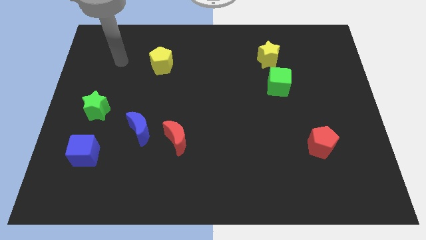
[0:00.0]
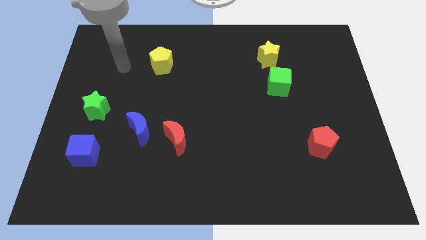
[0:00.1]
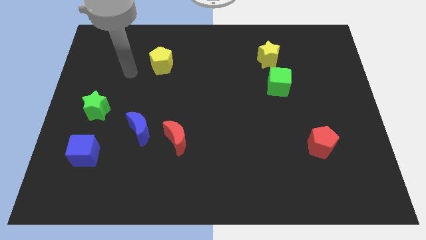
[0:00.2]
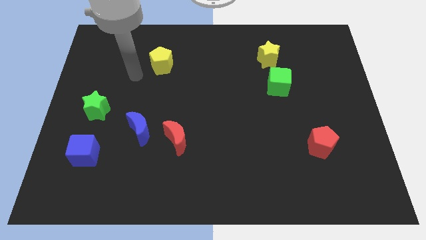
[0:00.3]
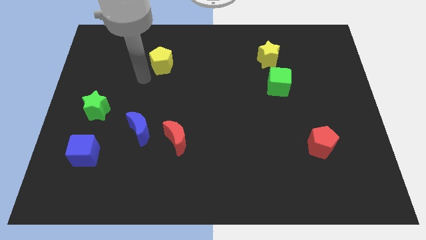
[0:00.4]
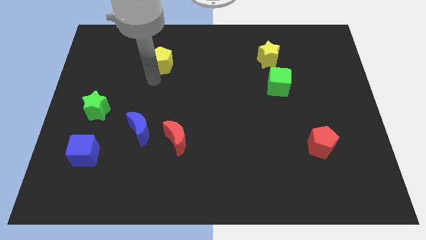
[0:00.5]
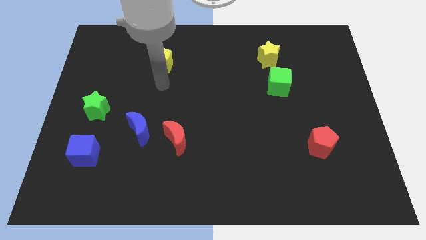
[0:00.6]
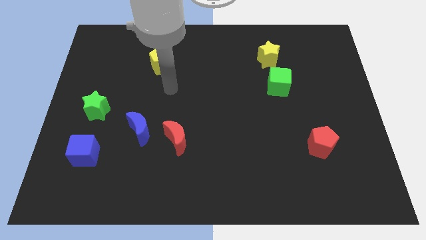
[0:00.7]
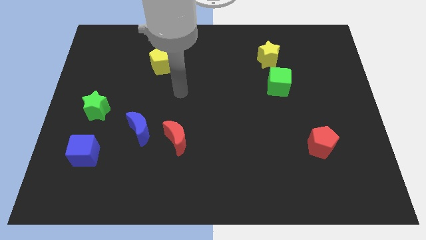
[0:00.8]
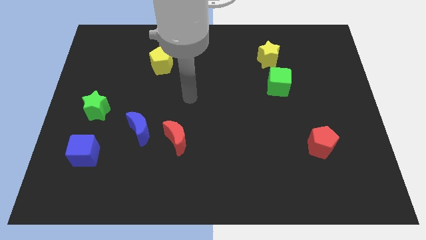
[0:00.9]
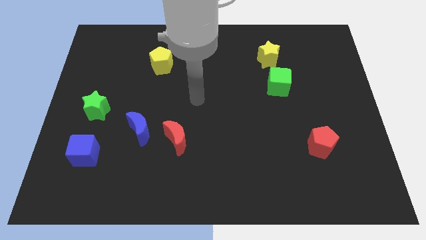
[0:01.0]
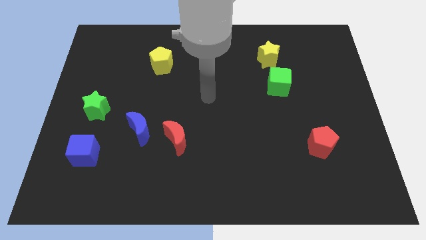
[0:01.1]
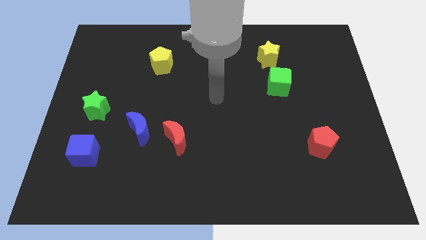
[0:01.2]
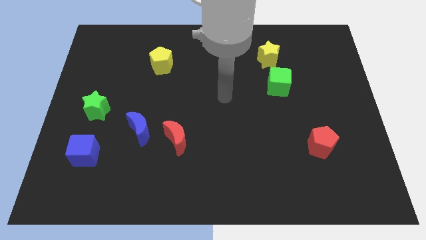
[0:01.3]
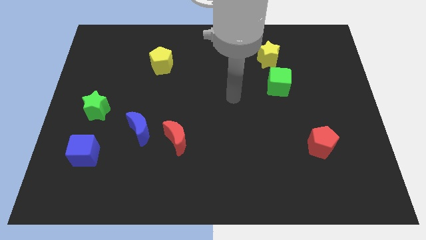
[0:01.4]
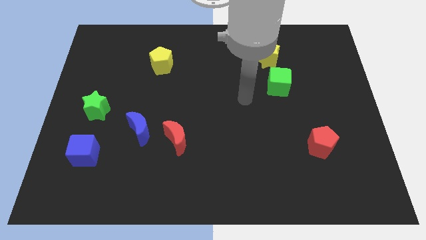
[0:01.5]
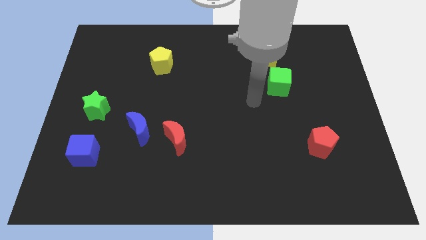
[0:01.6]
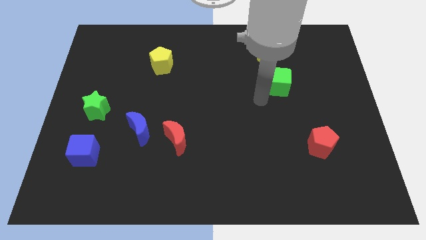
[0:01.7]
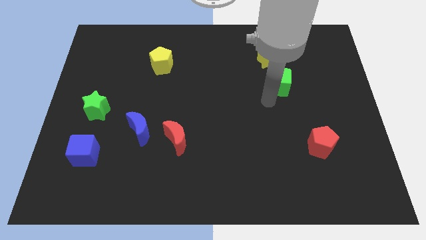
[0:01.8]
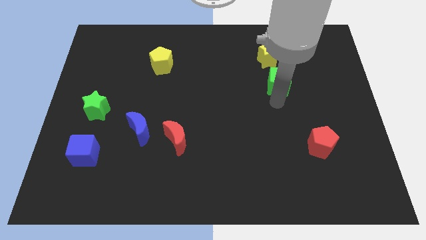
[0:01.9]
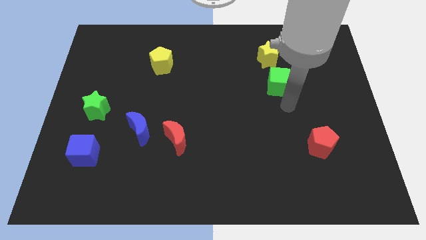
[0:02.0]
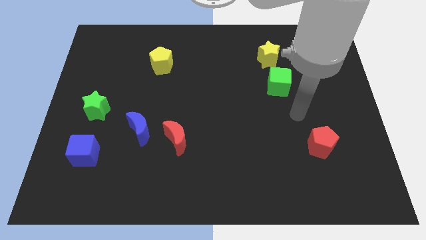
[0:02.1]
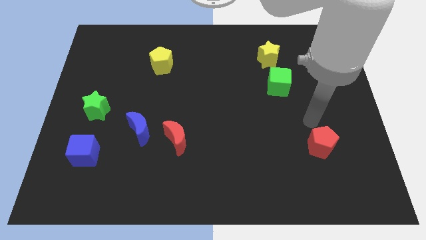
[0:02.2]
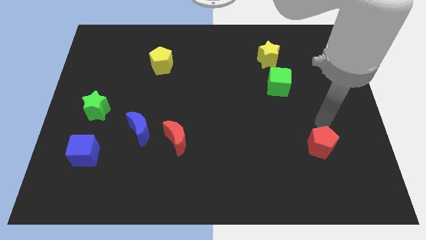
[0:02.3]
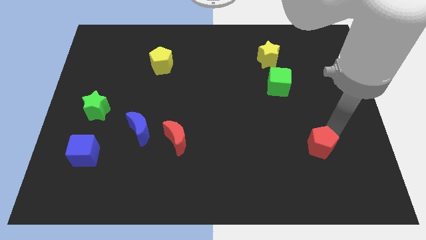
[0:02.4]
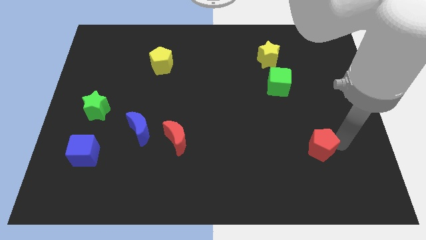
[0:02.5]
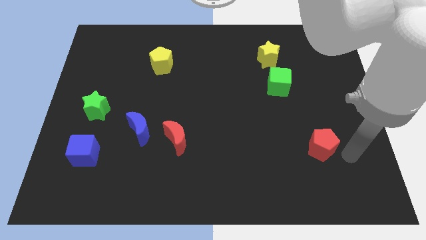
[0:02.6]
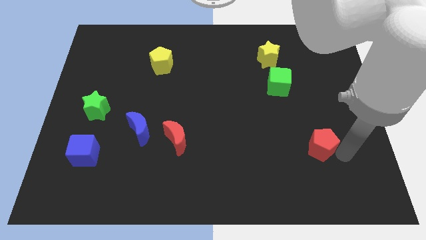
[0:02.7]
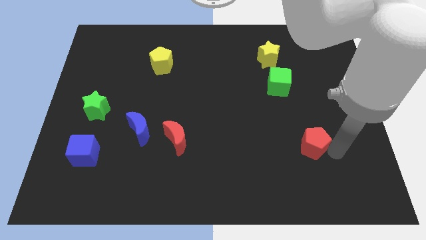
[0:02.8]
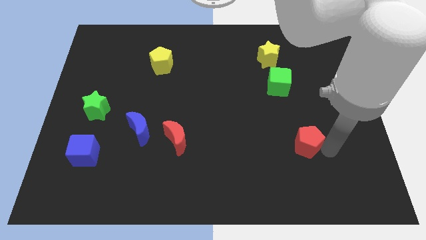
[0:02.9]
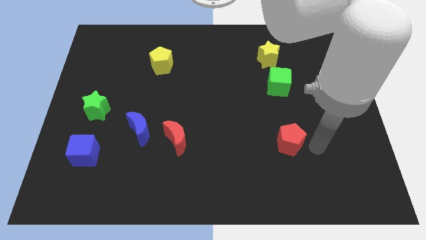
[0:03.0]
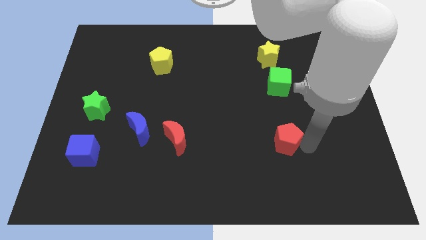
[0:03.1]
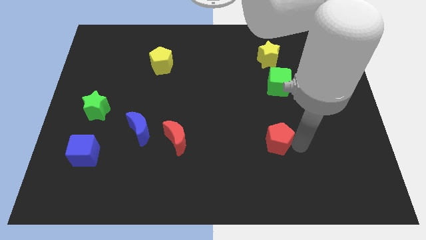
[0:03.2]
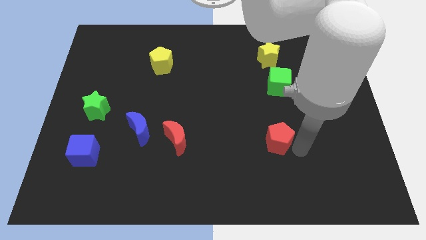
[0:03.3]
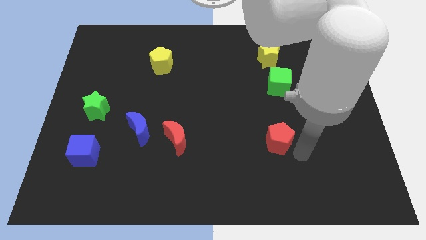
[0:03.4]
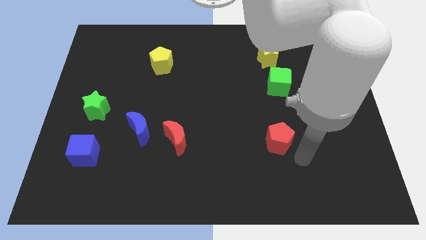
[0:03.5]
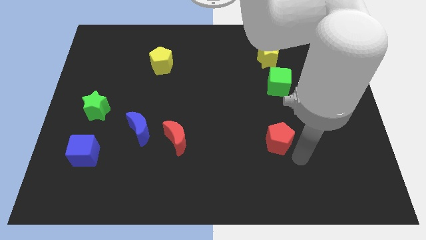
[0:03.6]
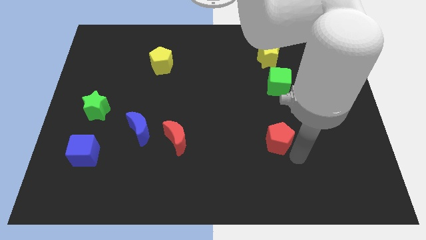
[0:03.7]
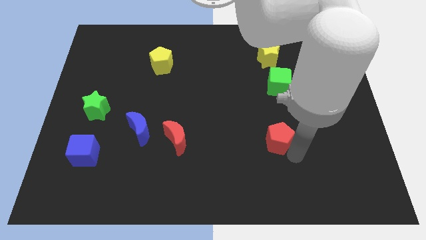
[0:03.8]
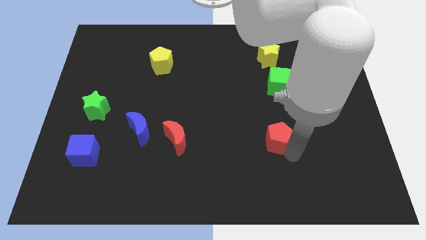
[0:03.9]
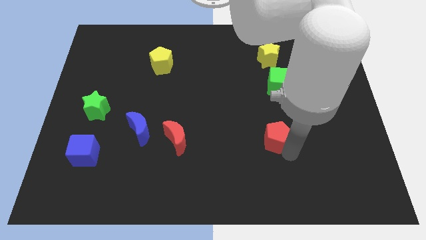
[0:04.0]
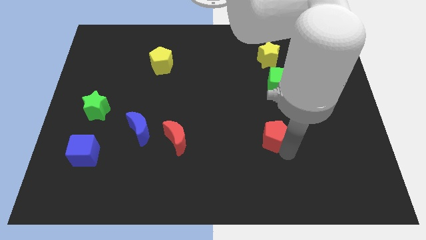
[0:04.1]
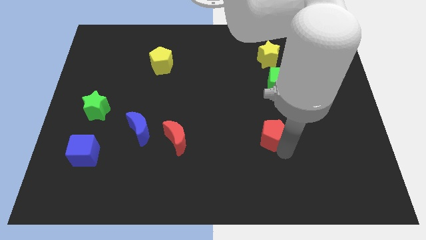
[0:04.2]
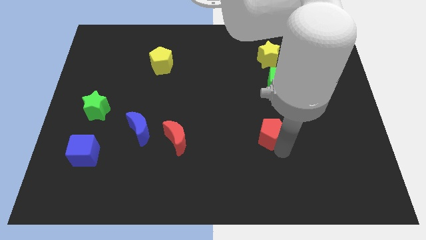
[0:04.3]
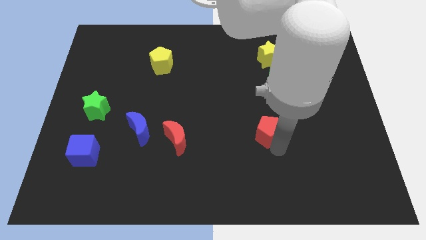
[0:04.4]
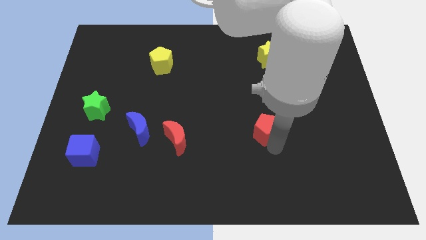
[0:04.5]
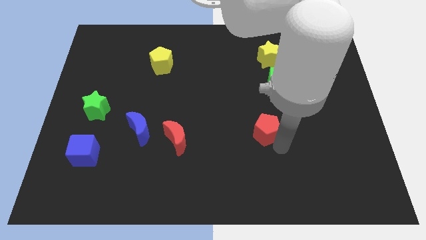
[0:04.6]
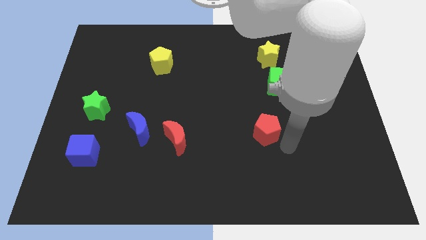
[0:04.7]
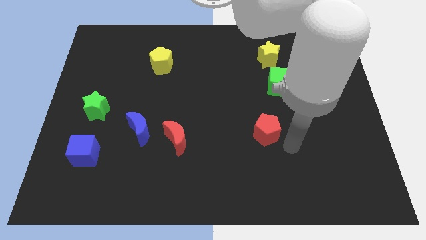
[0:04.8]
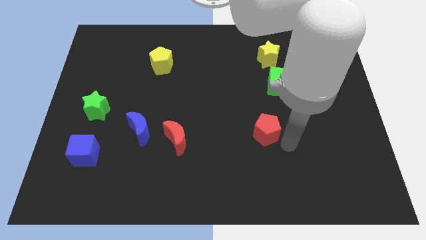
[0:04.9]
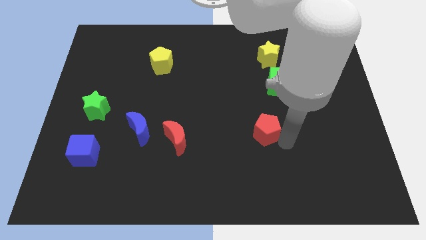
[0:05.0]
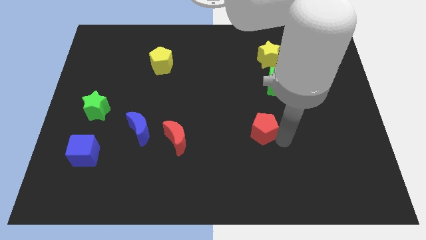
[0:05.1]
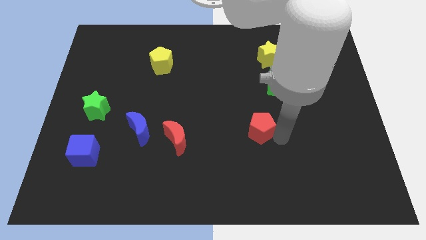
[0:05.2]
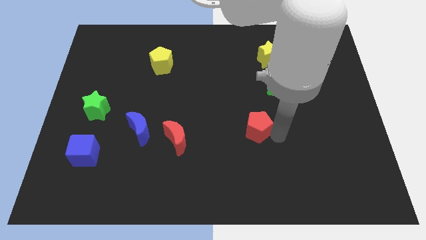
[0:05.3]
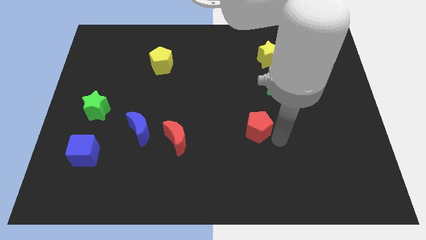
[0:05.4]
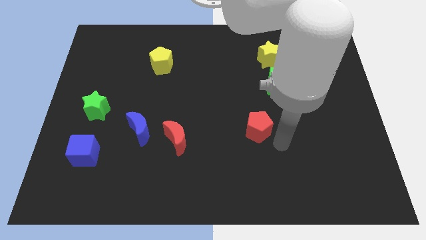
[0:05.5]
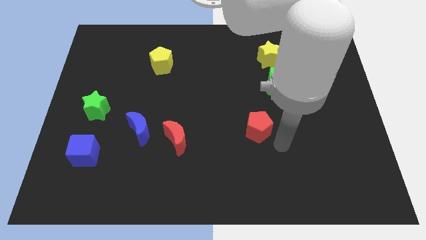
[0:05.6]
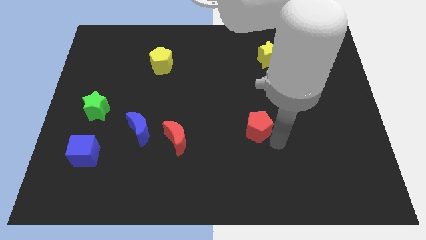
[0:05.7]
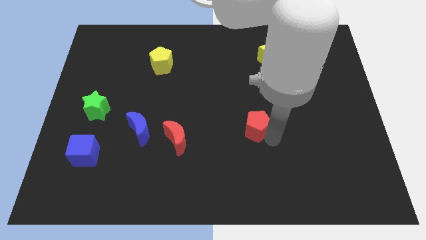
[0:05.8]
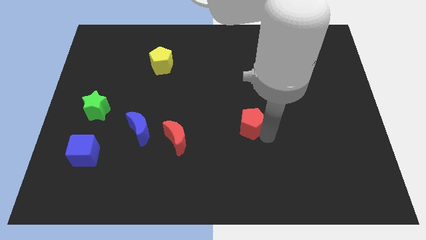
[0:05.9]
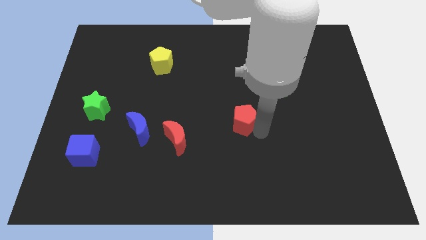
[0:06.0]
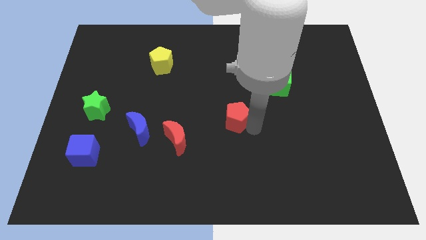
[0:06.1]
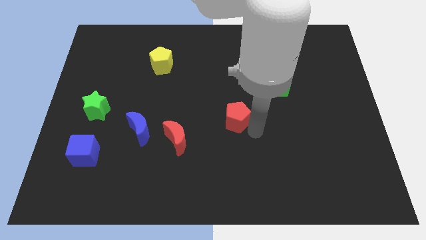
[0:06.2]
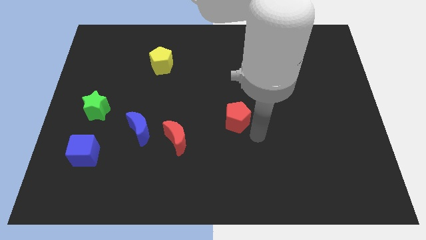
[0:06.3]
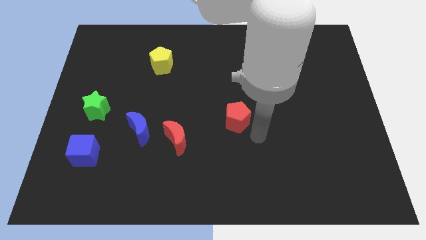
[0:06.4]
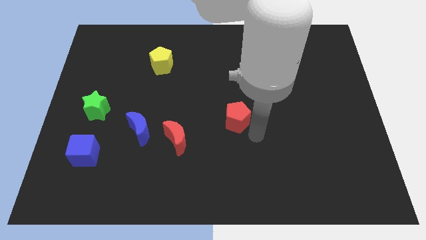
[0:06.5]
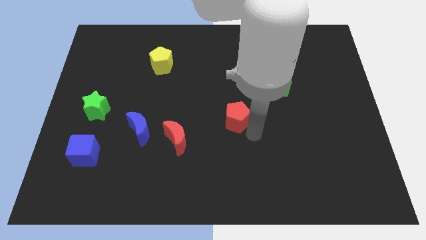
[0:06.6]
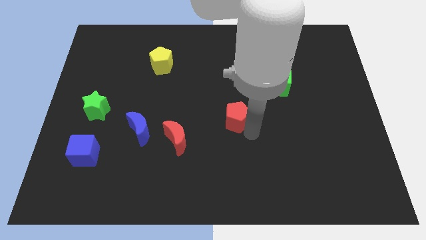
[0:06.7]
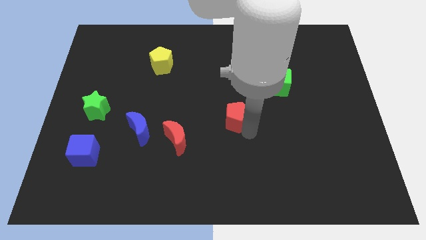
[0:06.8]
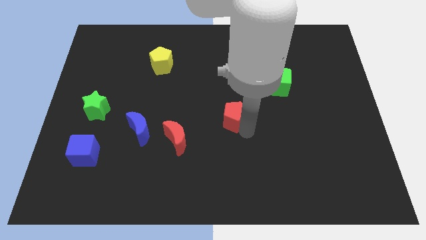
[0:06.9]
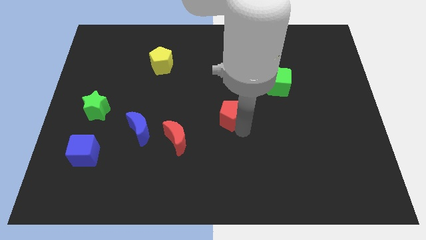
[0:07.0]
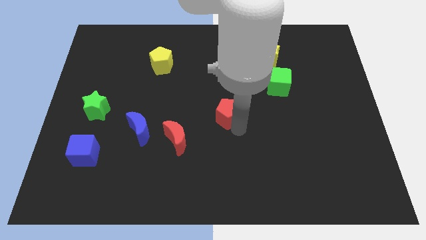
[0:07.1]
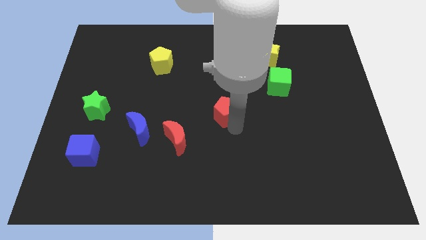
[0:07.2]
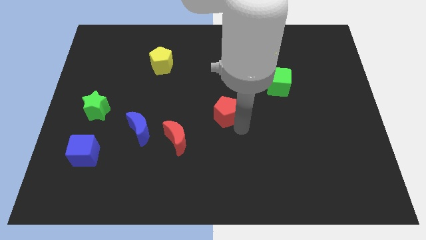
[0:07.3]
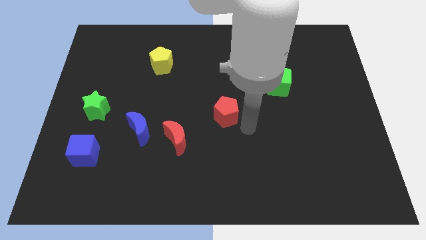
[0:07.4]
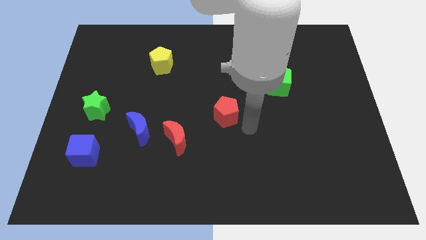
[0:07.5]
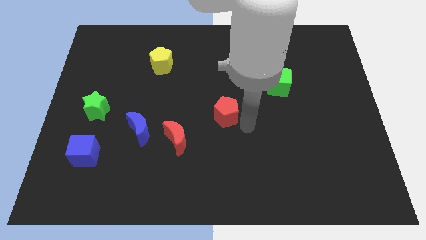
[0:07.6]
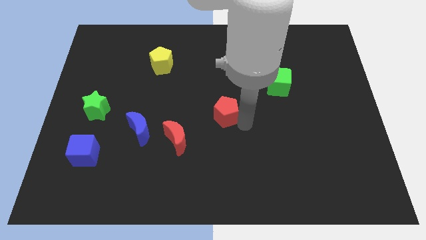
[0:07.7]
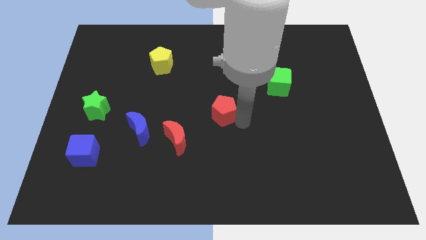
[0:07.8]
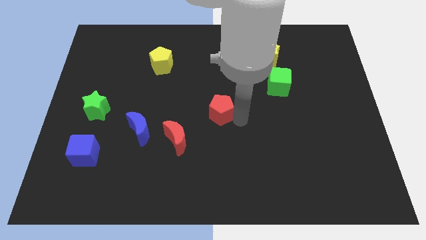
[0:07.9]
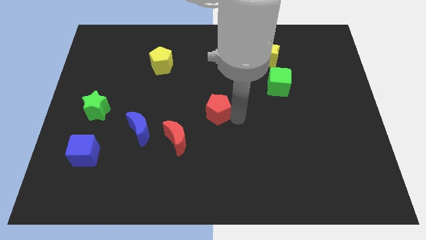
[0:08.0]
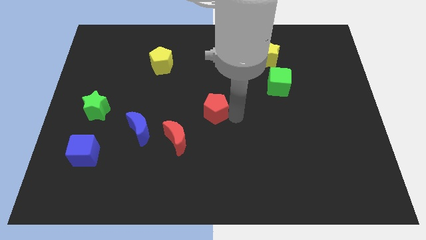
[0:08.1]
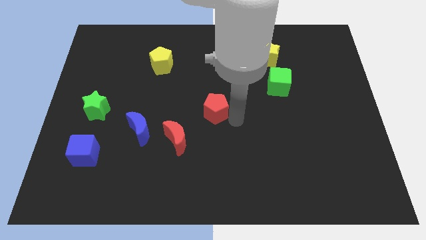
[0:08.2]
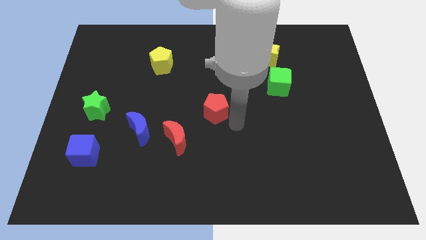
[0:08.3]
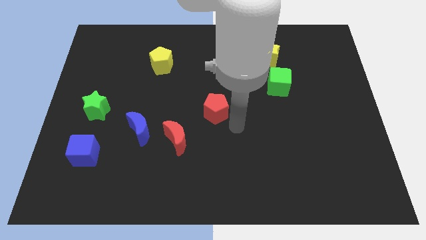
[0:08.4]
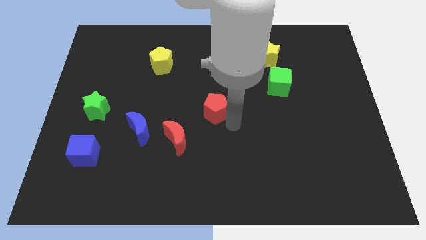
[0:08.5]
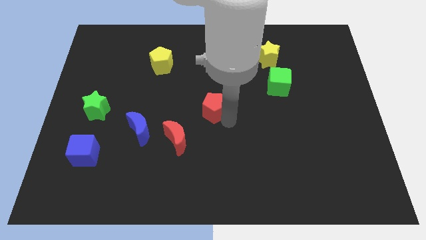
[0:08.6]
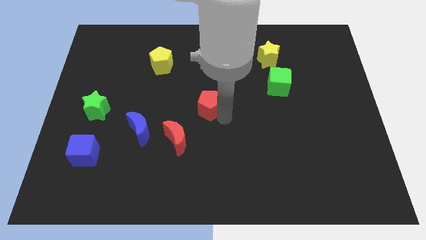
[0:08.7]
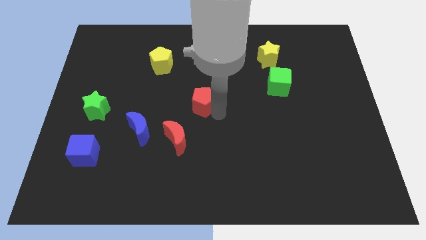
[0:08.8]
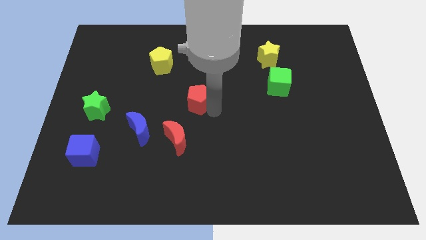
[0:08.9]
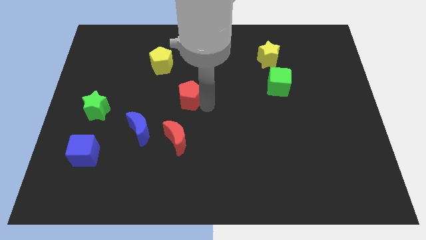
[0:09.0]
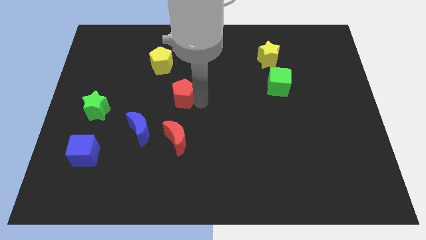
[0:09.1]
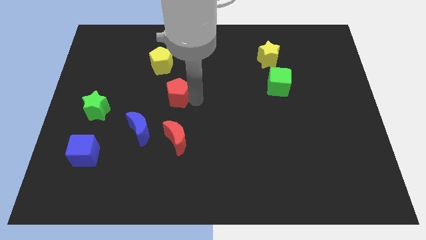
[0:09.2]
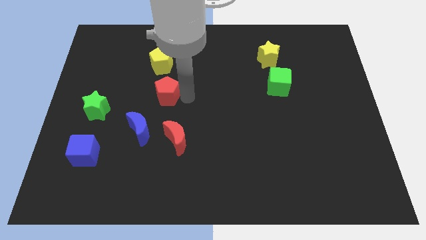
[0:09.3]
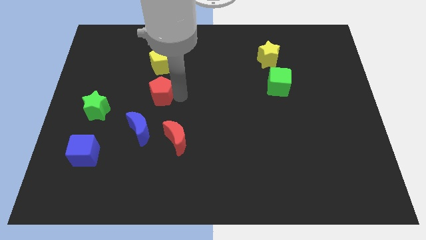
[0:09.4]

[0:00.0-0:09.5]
slide the red pentagon to the top side of the blue moon
